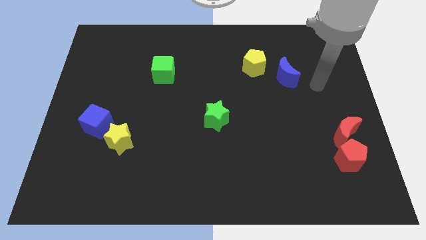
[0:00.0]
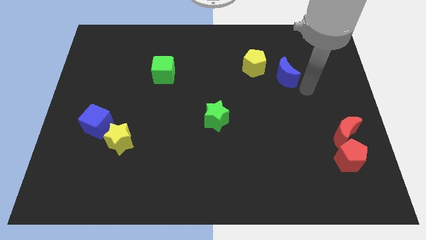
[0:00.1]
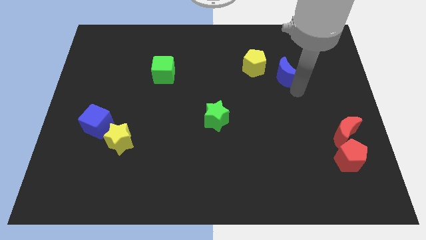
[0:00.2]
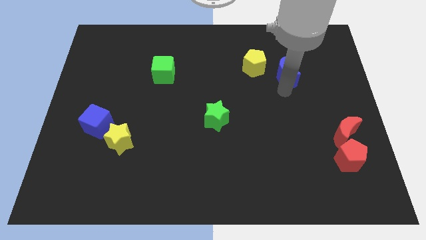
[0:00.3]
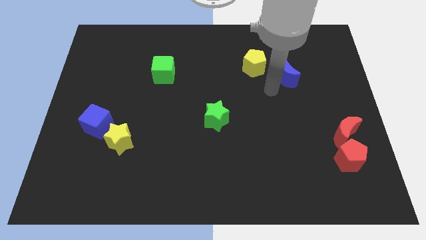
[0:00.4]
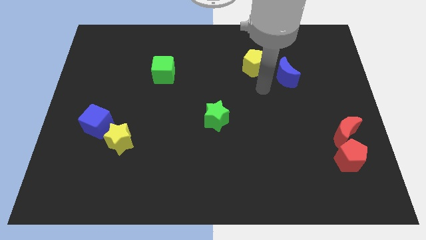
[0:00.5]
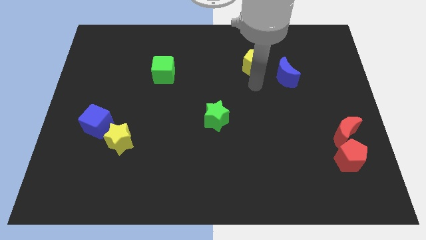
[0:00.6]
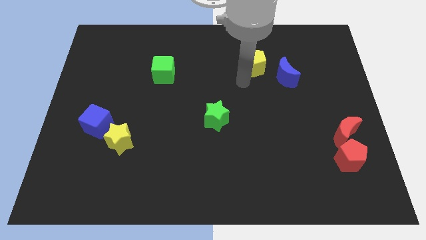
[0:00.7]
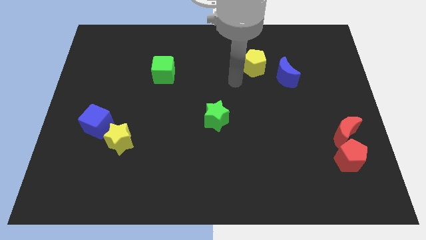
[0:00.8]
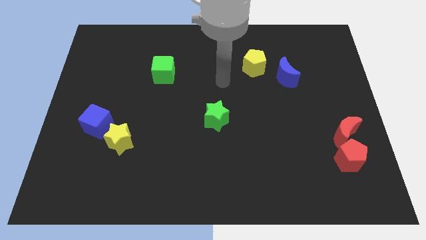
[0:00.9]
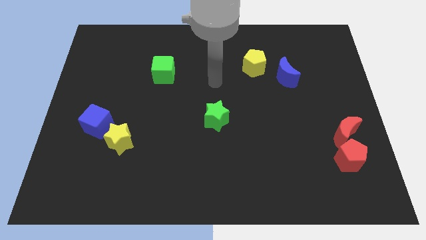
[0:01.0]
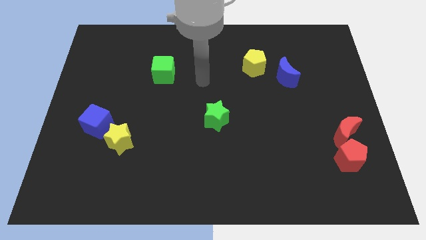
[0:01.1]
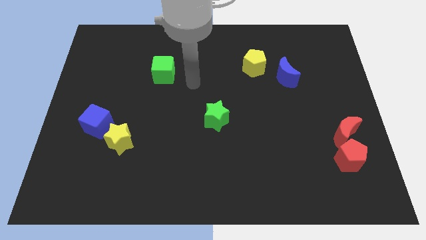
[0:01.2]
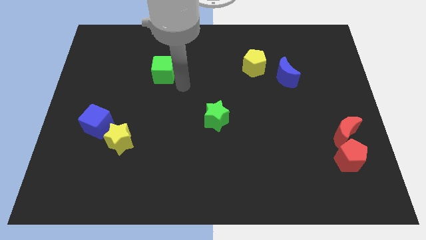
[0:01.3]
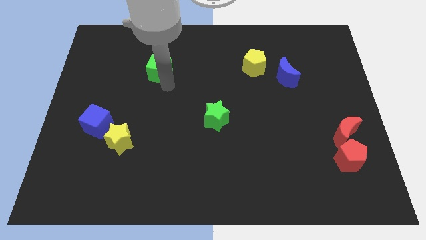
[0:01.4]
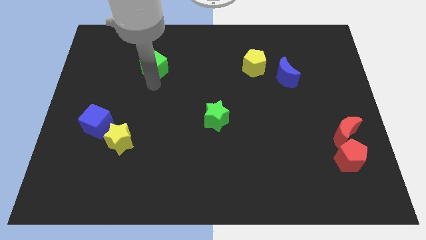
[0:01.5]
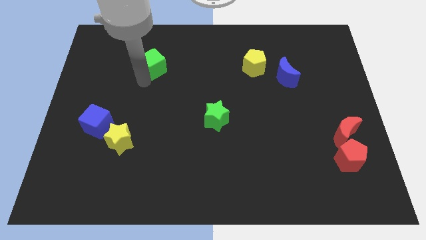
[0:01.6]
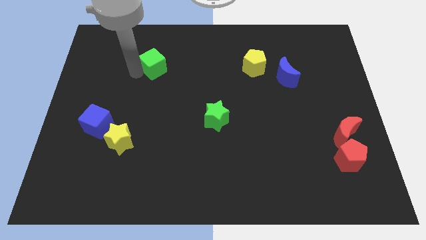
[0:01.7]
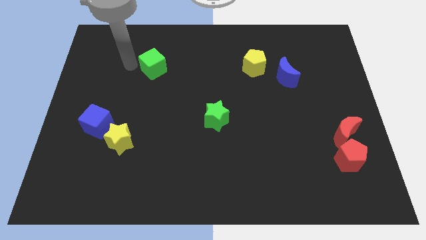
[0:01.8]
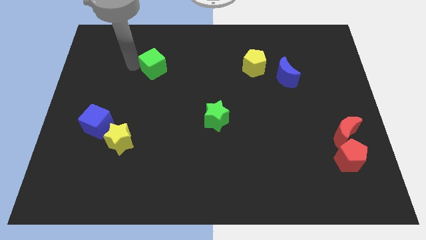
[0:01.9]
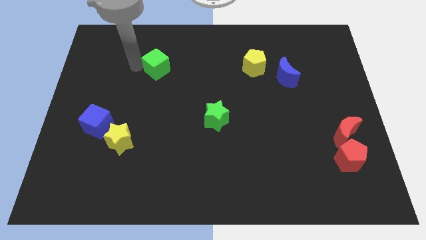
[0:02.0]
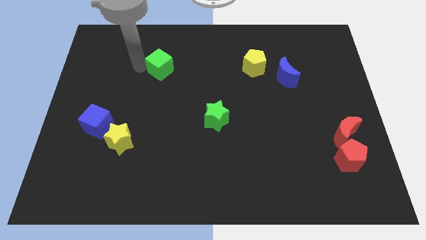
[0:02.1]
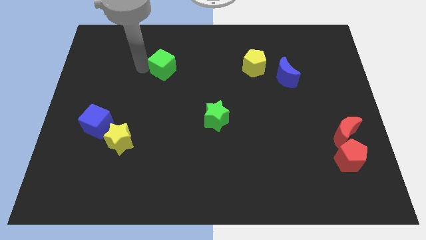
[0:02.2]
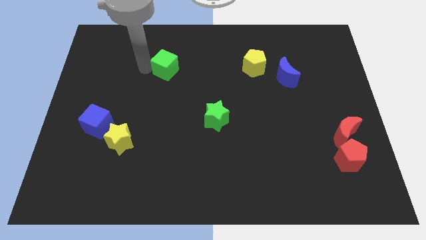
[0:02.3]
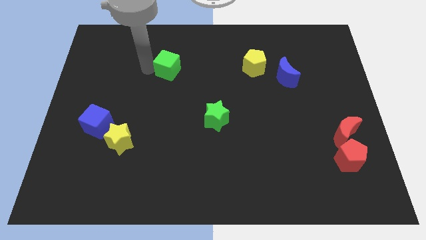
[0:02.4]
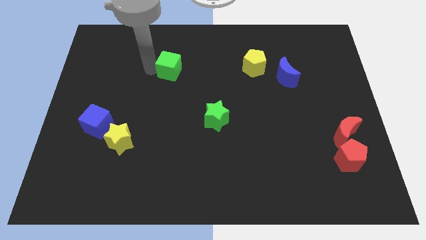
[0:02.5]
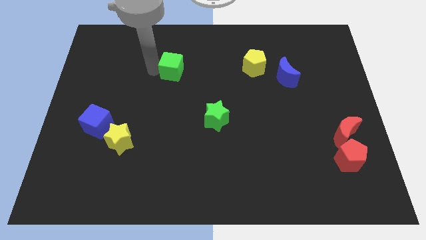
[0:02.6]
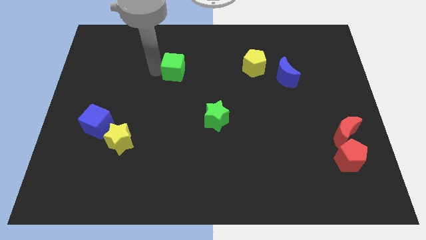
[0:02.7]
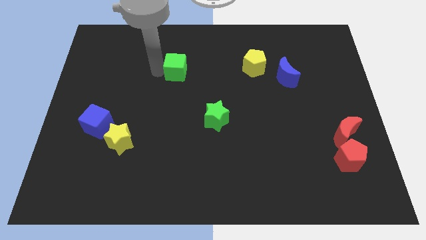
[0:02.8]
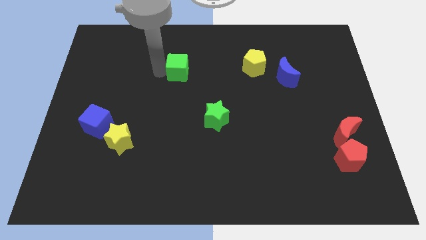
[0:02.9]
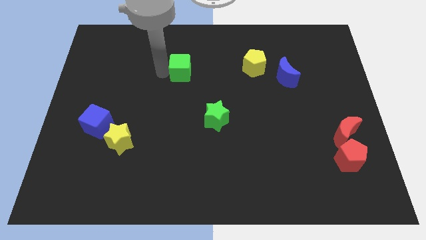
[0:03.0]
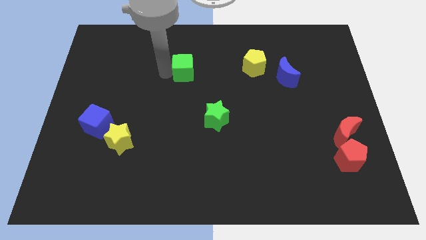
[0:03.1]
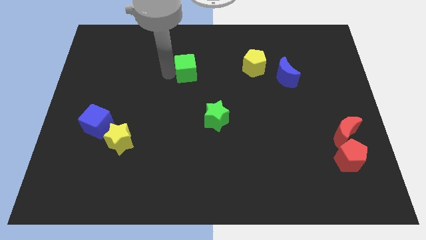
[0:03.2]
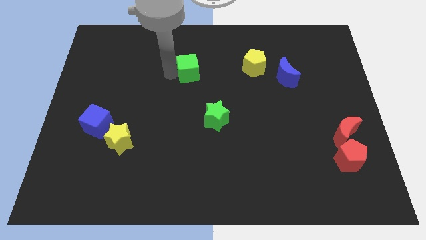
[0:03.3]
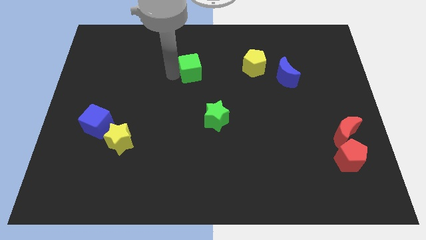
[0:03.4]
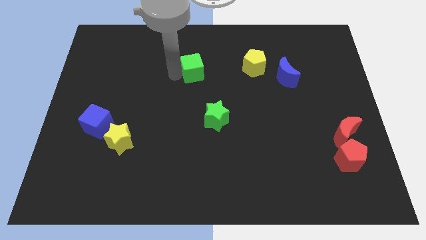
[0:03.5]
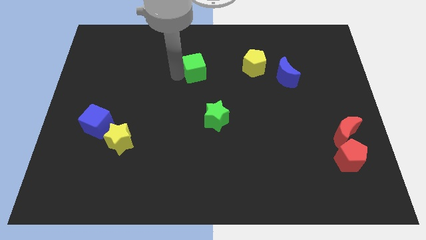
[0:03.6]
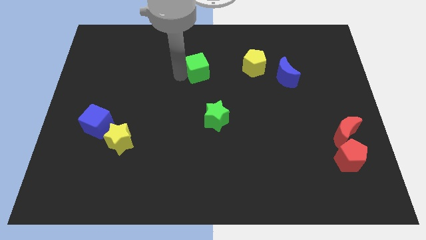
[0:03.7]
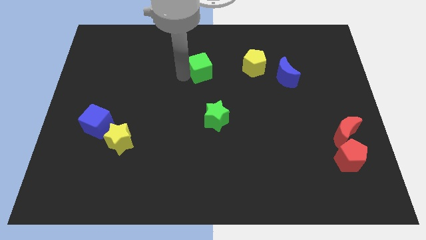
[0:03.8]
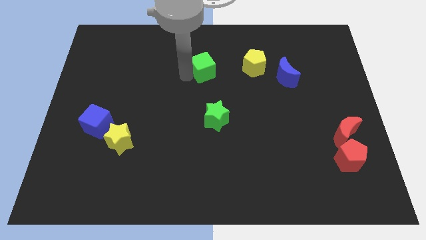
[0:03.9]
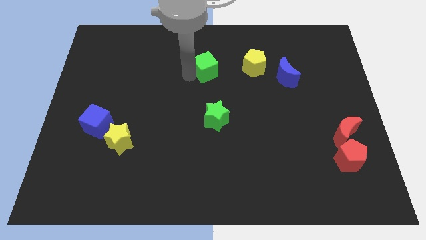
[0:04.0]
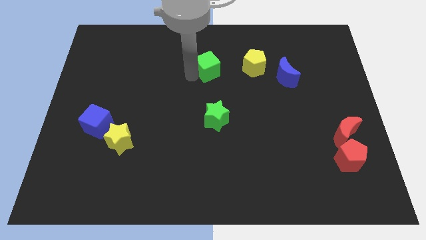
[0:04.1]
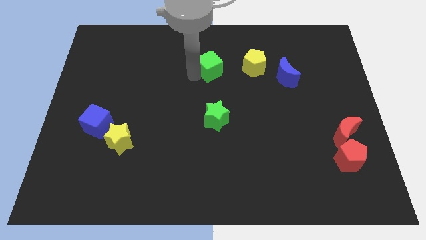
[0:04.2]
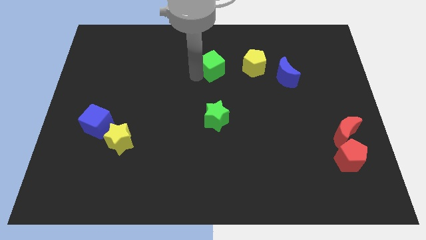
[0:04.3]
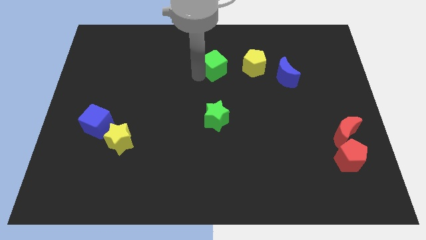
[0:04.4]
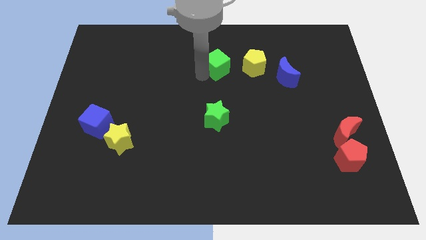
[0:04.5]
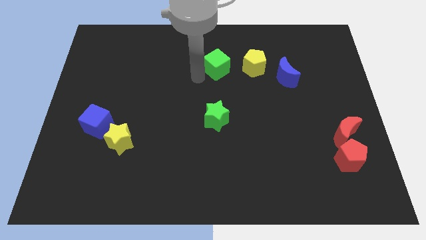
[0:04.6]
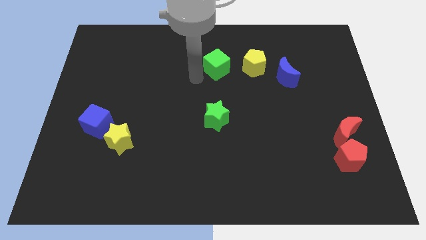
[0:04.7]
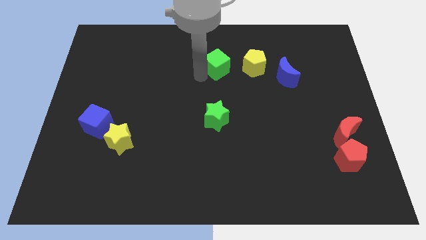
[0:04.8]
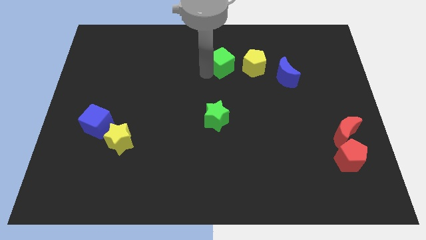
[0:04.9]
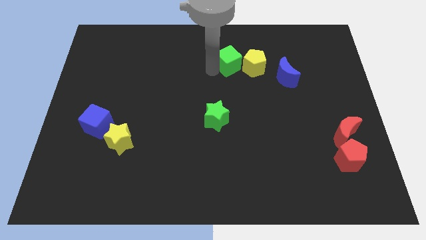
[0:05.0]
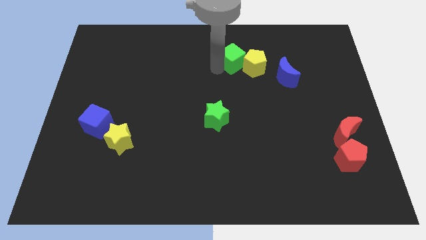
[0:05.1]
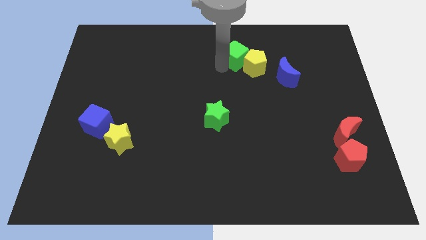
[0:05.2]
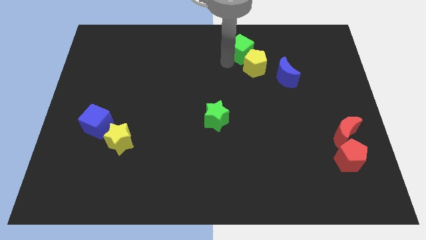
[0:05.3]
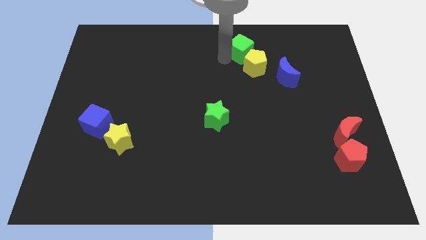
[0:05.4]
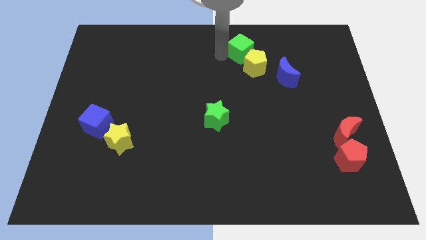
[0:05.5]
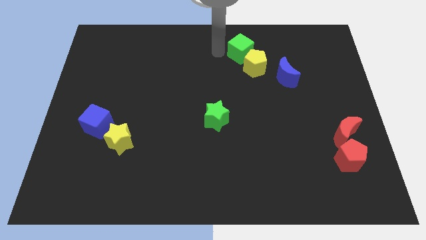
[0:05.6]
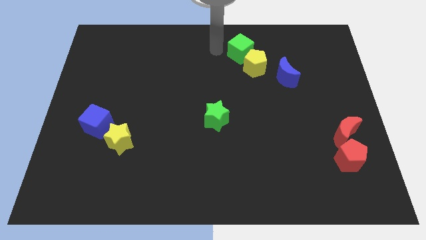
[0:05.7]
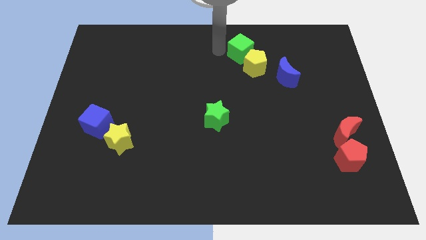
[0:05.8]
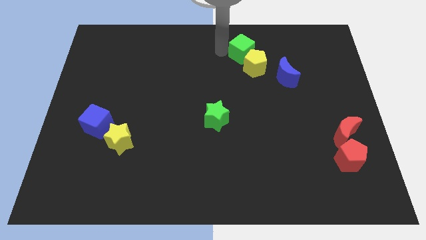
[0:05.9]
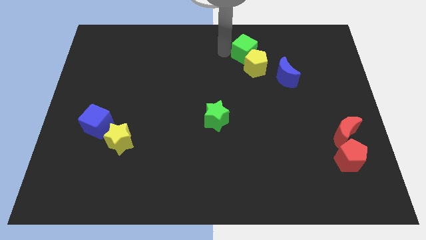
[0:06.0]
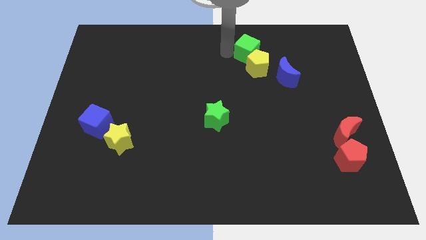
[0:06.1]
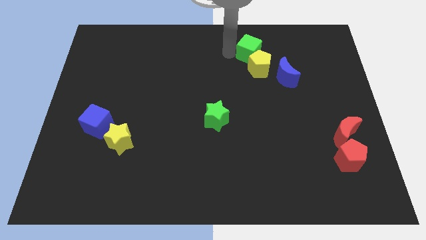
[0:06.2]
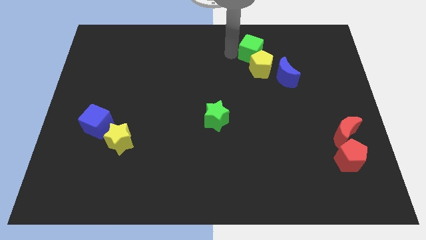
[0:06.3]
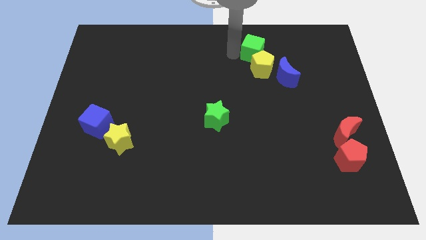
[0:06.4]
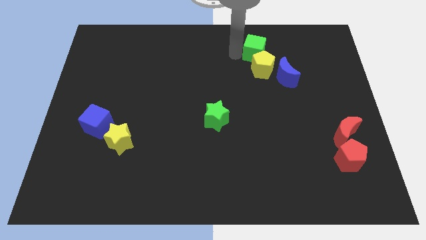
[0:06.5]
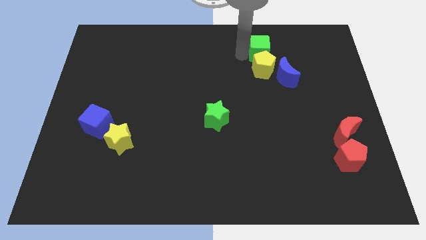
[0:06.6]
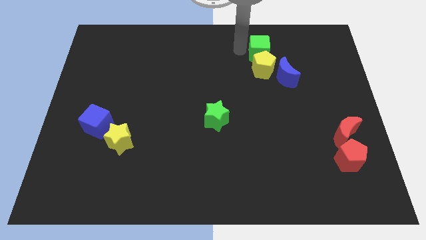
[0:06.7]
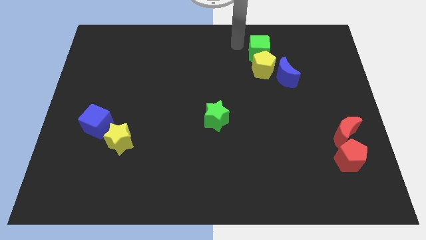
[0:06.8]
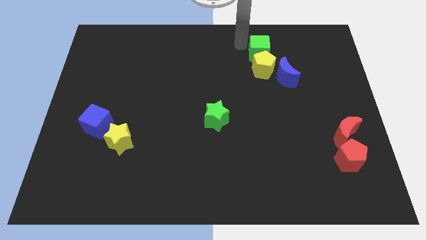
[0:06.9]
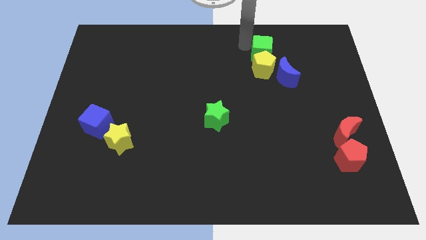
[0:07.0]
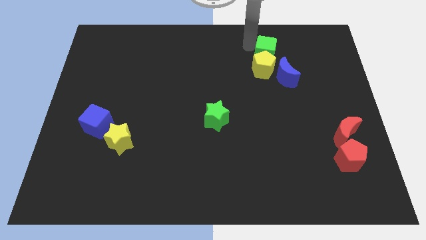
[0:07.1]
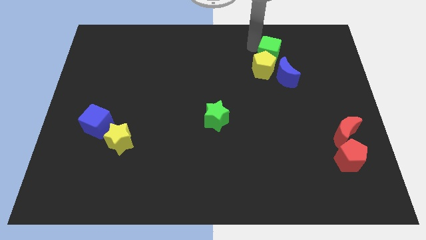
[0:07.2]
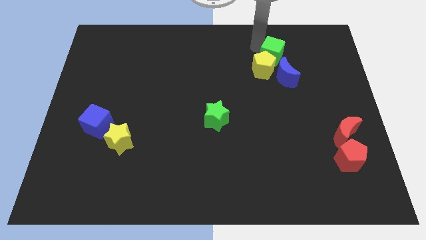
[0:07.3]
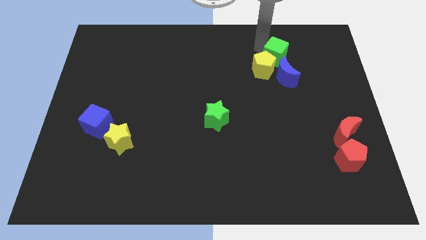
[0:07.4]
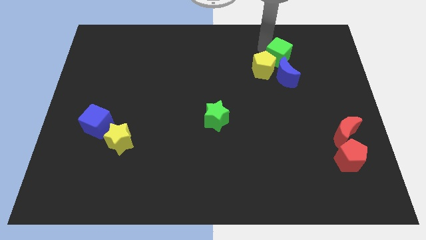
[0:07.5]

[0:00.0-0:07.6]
move the green cube to the right of the yellow pentagon

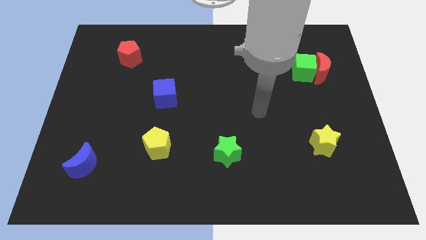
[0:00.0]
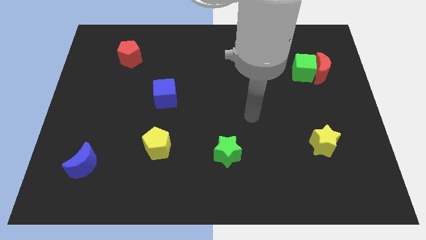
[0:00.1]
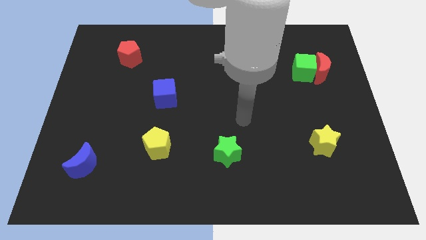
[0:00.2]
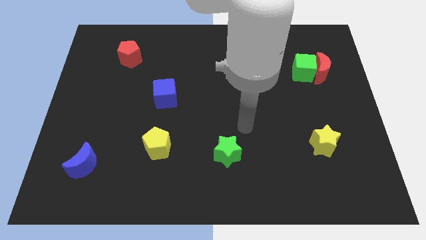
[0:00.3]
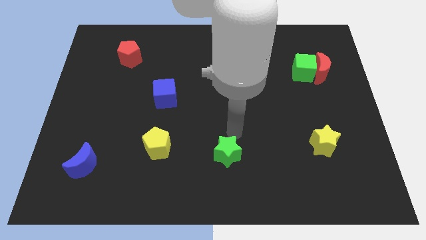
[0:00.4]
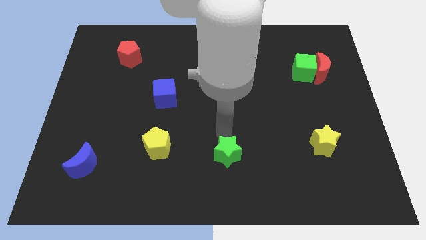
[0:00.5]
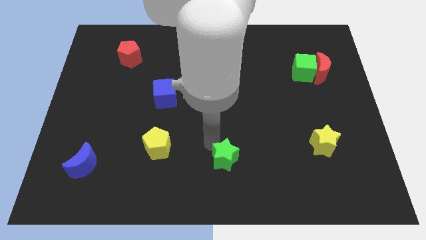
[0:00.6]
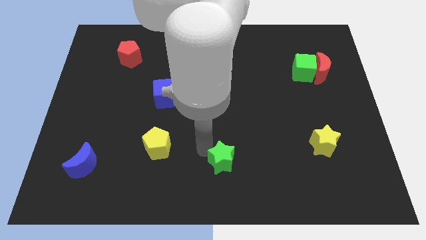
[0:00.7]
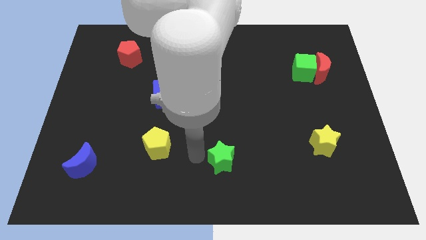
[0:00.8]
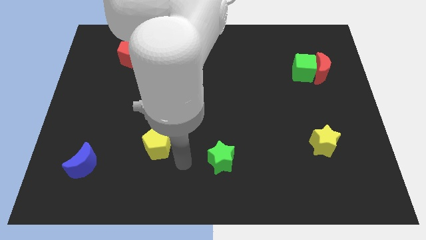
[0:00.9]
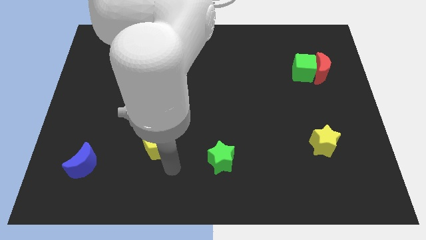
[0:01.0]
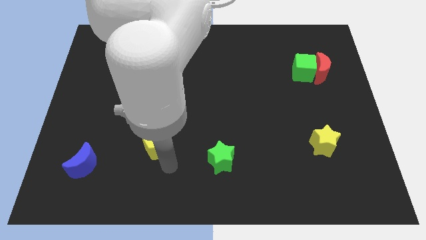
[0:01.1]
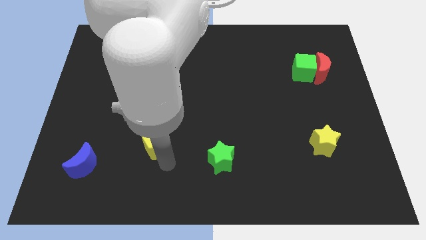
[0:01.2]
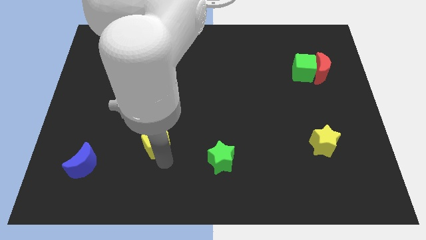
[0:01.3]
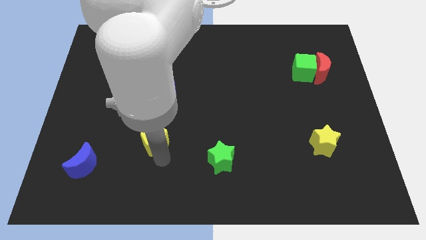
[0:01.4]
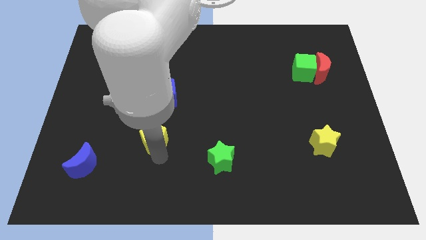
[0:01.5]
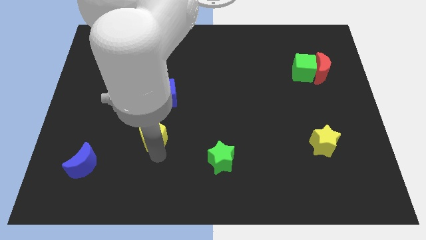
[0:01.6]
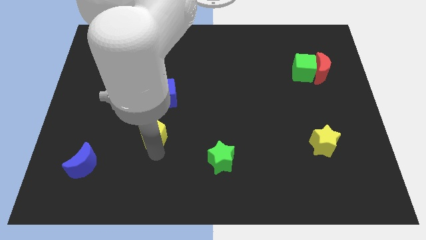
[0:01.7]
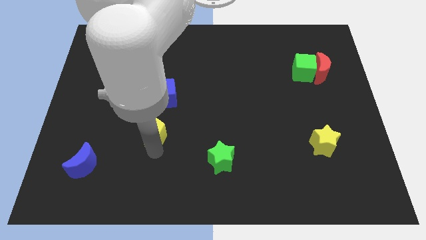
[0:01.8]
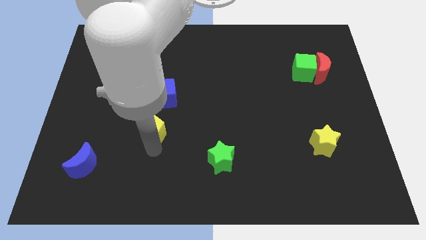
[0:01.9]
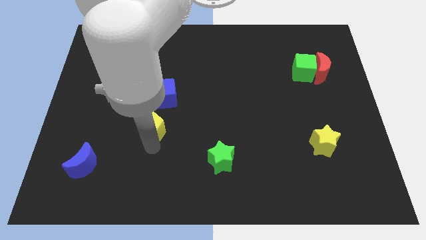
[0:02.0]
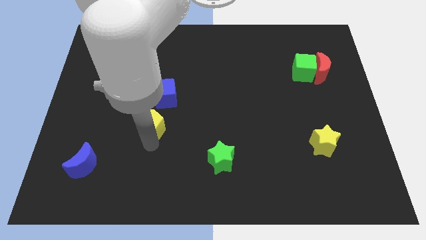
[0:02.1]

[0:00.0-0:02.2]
put the yellow pentagon to the bottom left side of the blue cube
